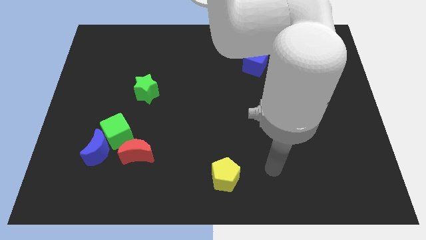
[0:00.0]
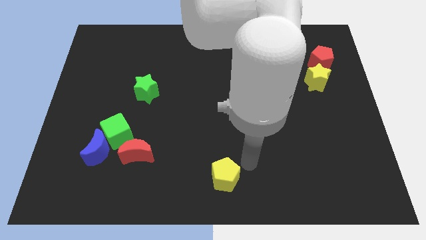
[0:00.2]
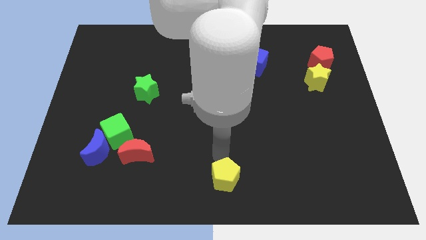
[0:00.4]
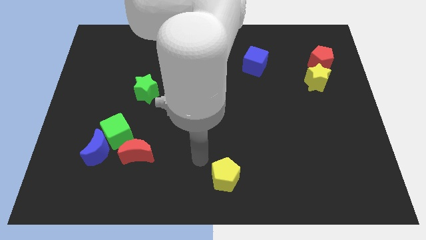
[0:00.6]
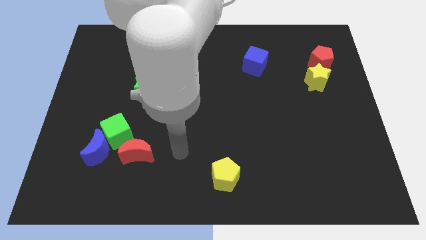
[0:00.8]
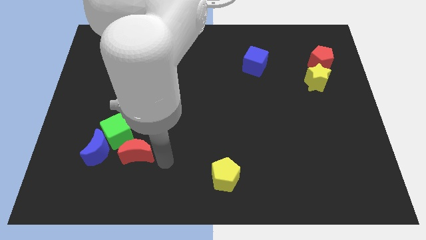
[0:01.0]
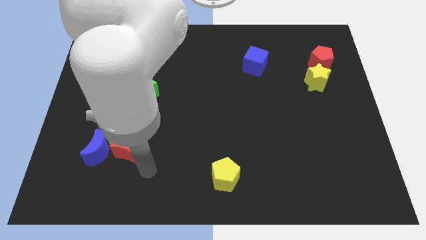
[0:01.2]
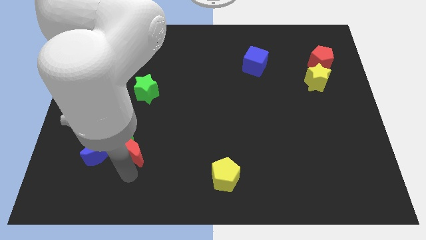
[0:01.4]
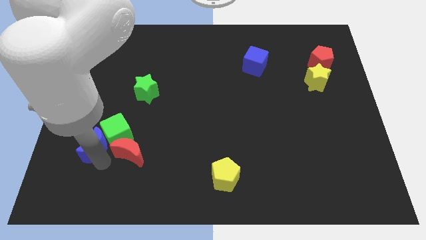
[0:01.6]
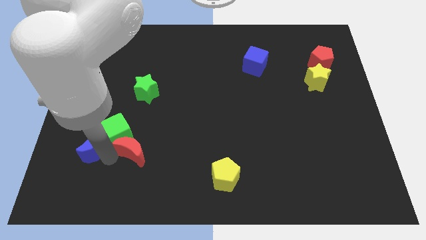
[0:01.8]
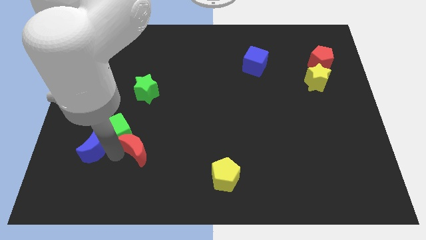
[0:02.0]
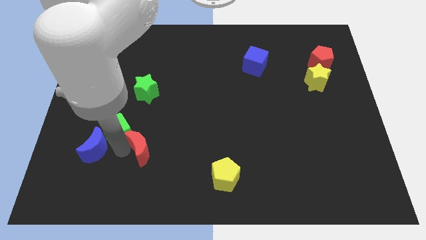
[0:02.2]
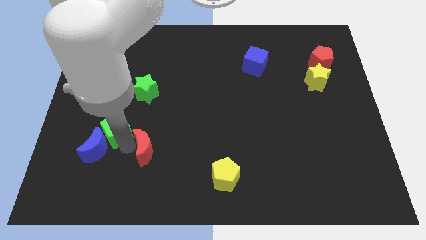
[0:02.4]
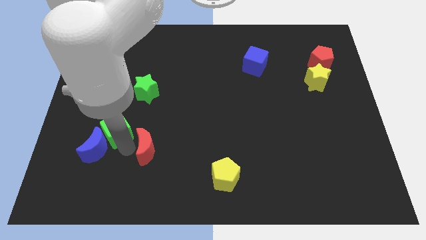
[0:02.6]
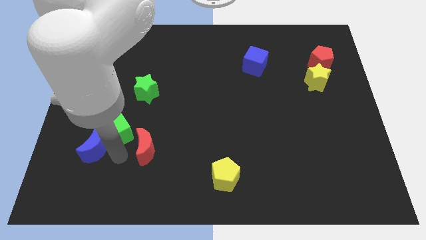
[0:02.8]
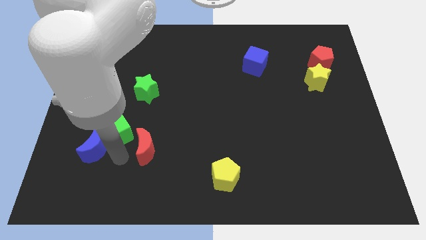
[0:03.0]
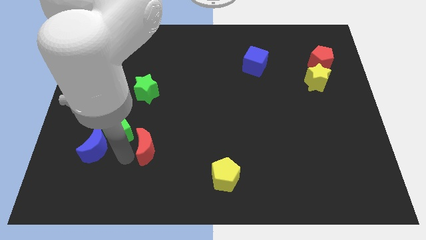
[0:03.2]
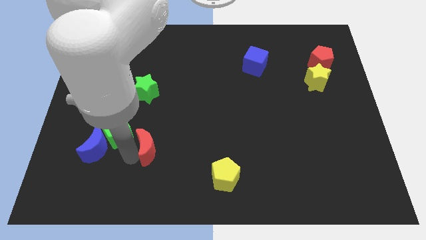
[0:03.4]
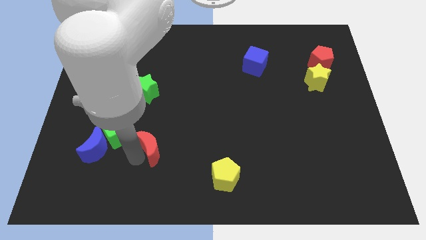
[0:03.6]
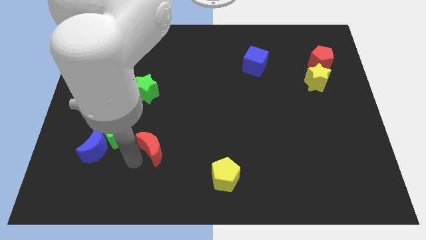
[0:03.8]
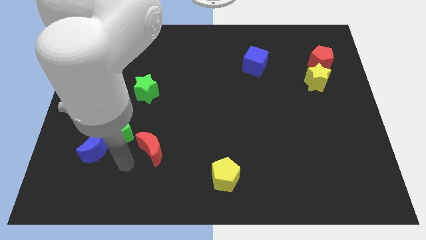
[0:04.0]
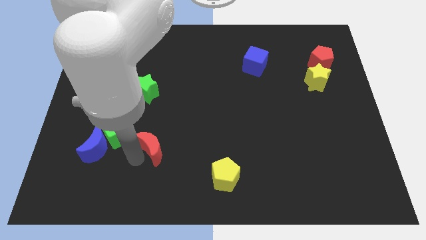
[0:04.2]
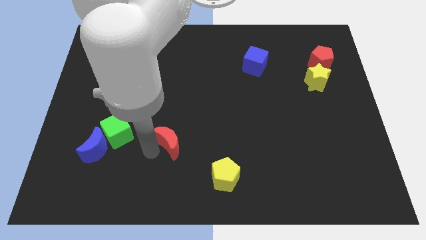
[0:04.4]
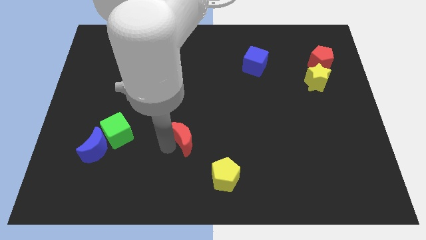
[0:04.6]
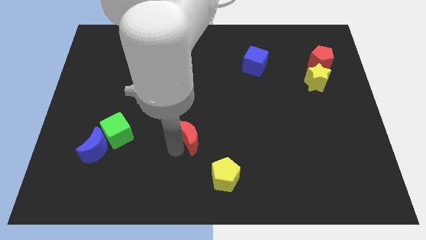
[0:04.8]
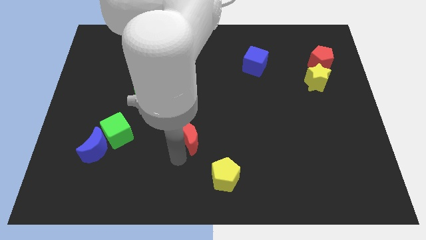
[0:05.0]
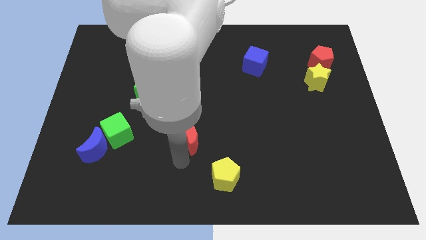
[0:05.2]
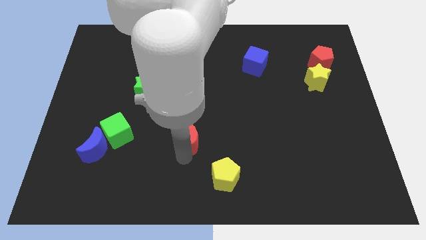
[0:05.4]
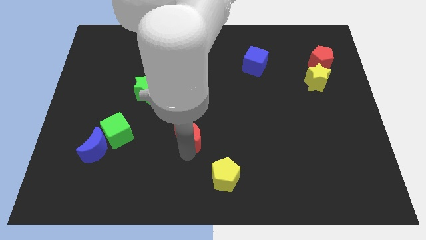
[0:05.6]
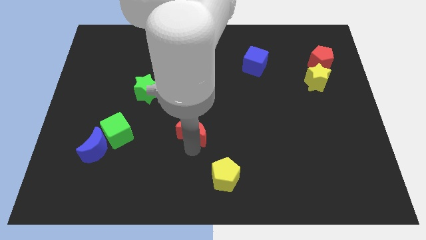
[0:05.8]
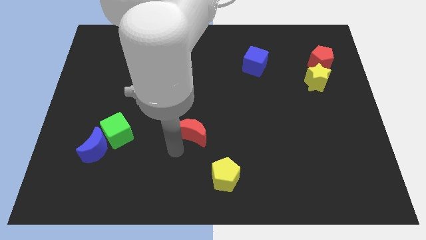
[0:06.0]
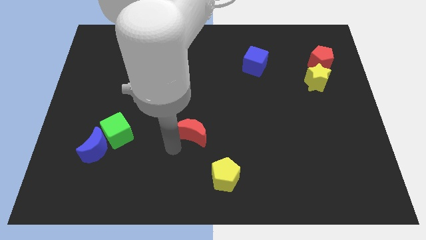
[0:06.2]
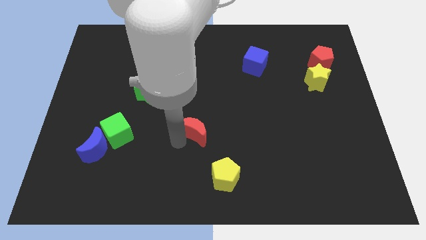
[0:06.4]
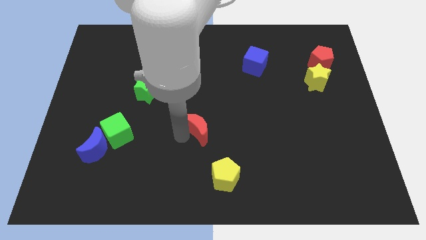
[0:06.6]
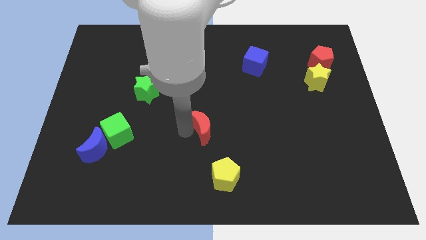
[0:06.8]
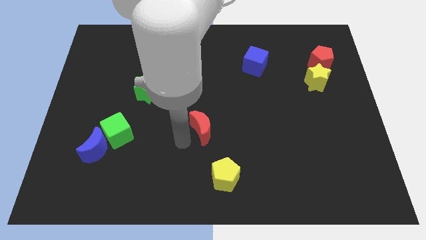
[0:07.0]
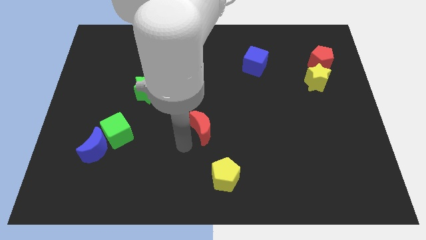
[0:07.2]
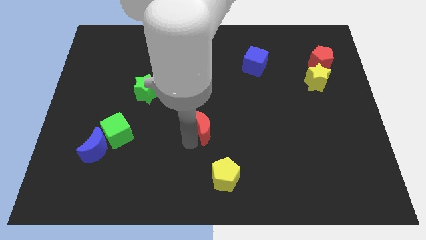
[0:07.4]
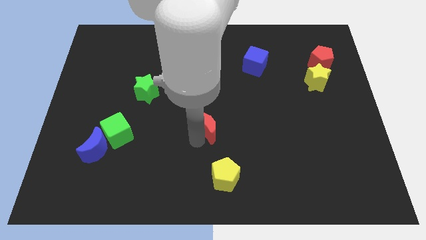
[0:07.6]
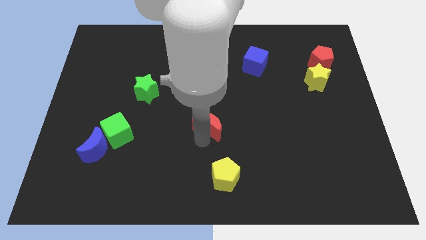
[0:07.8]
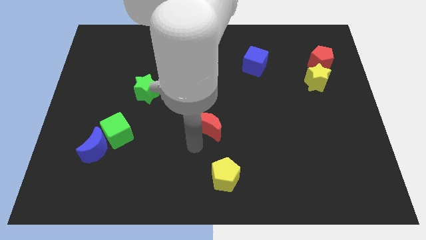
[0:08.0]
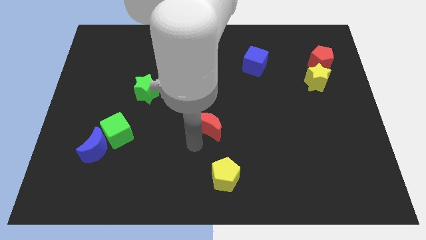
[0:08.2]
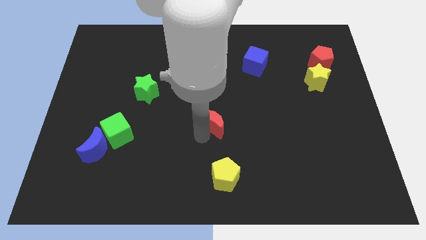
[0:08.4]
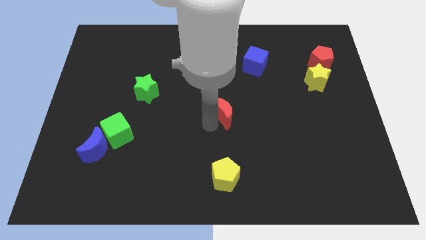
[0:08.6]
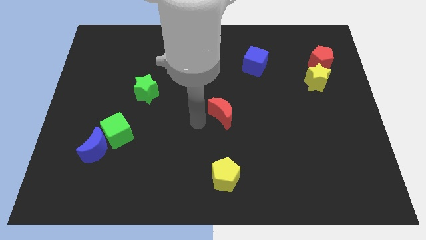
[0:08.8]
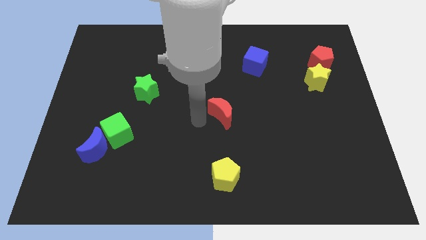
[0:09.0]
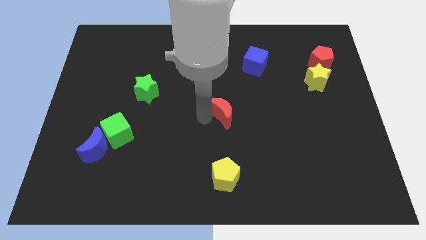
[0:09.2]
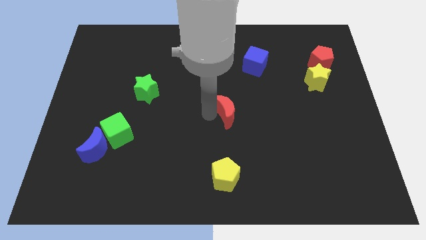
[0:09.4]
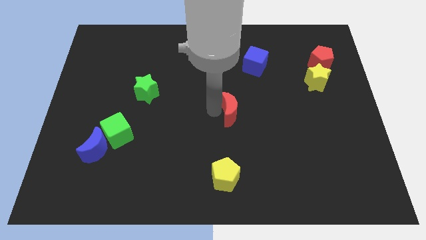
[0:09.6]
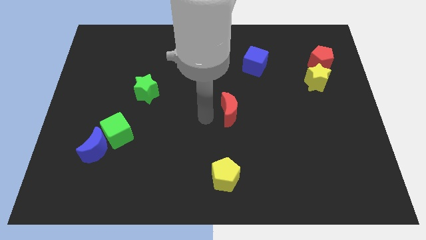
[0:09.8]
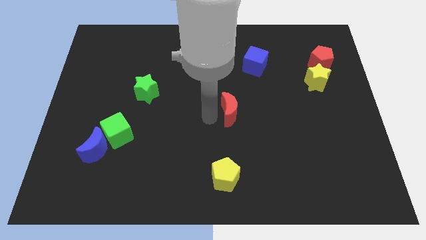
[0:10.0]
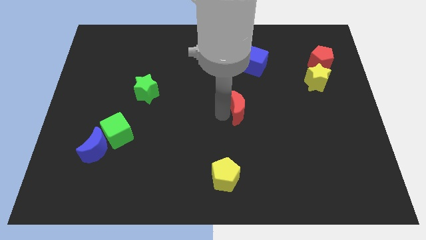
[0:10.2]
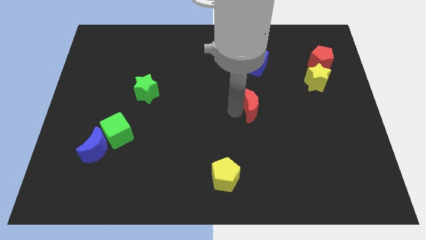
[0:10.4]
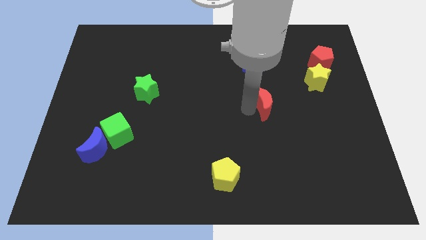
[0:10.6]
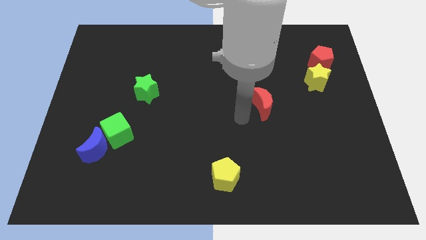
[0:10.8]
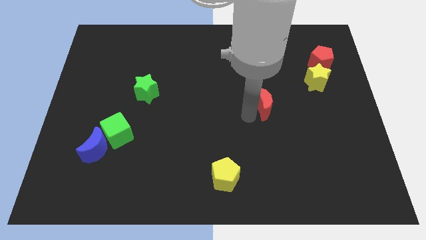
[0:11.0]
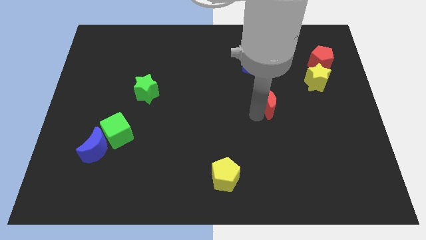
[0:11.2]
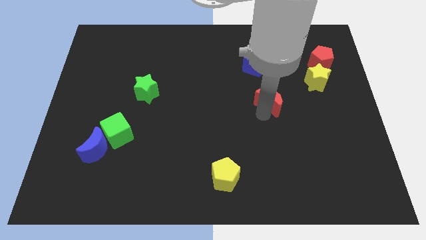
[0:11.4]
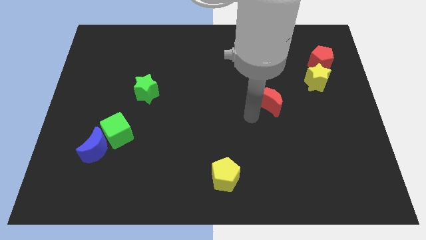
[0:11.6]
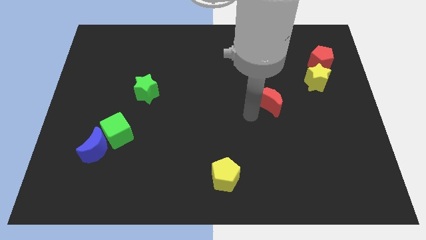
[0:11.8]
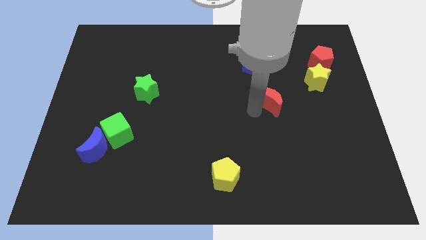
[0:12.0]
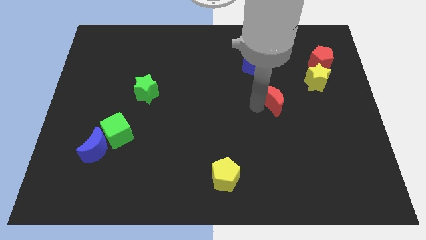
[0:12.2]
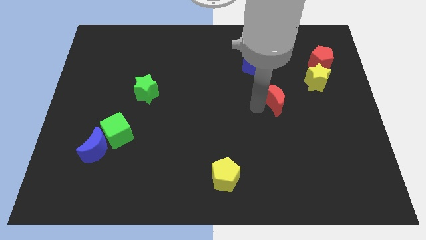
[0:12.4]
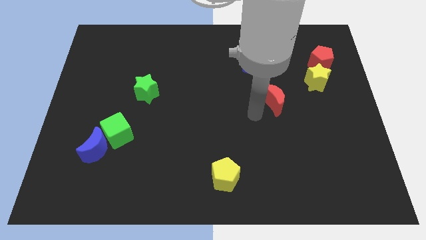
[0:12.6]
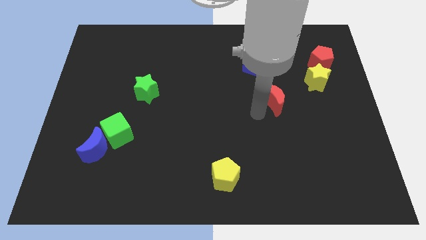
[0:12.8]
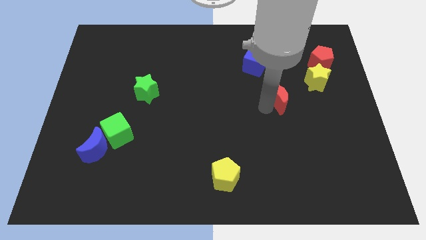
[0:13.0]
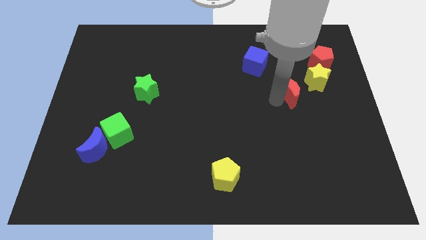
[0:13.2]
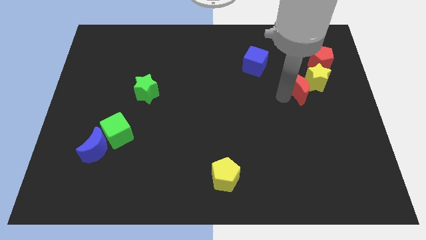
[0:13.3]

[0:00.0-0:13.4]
move the red moon towards the yellow star
